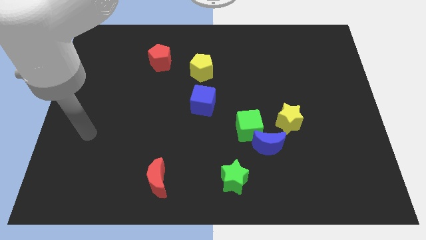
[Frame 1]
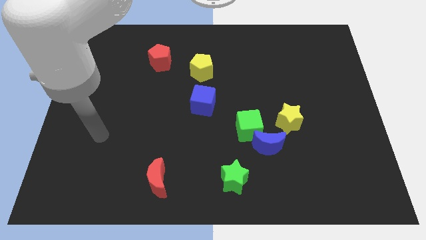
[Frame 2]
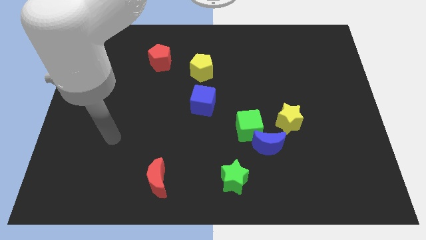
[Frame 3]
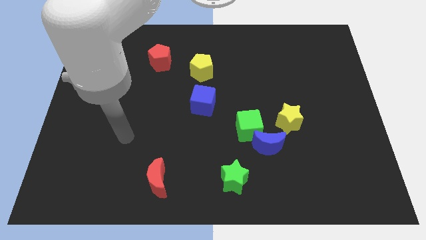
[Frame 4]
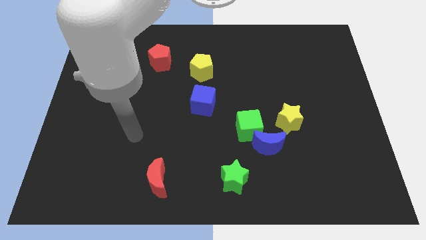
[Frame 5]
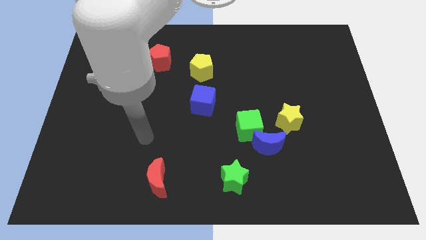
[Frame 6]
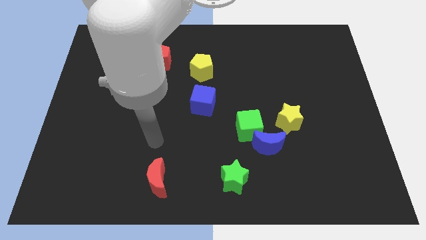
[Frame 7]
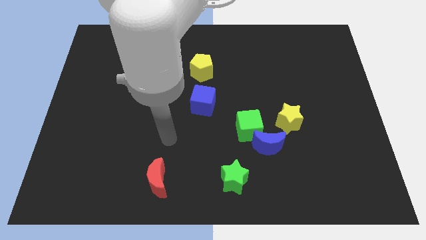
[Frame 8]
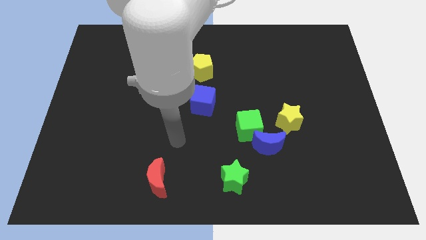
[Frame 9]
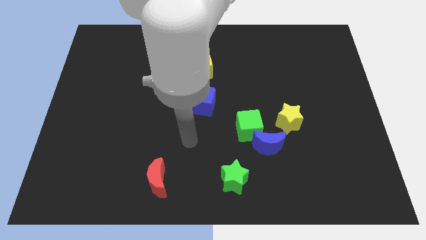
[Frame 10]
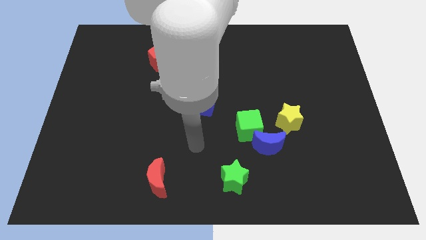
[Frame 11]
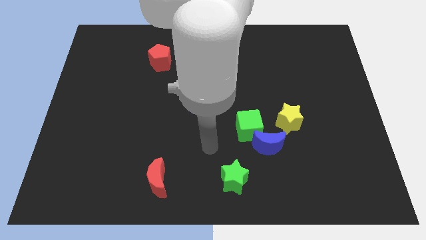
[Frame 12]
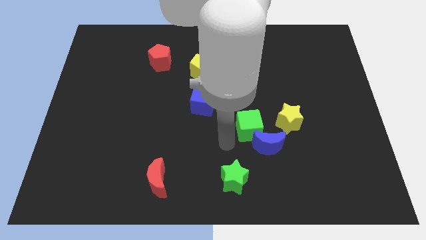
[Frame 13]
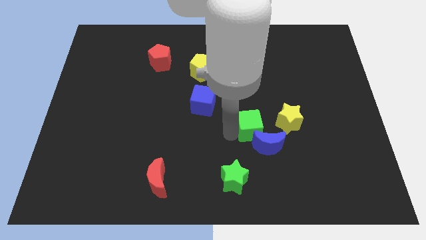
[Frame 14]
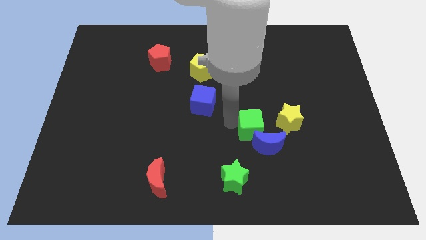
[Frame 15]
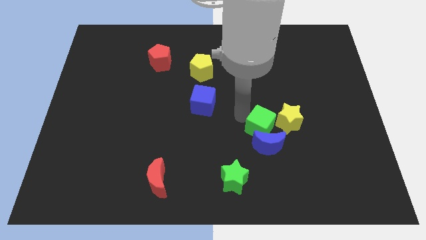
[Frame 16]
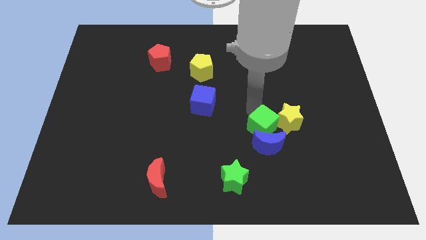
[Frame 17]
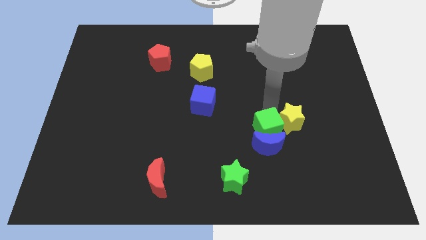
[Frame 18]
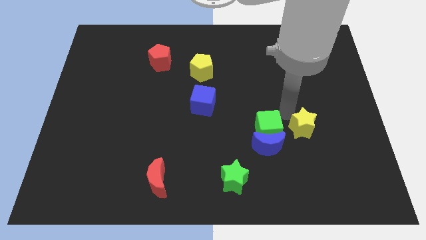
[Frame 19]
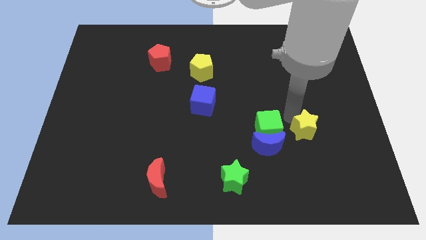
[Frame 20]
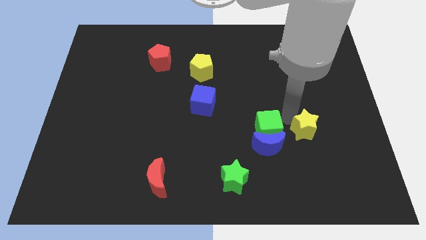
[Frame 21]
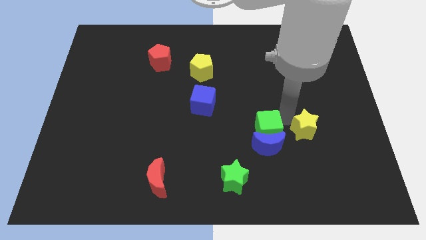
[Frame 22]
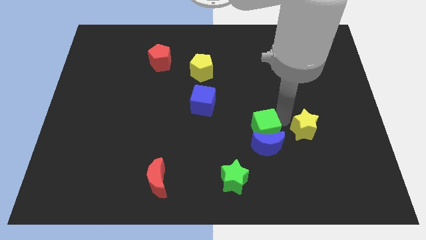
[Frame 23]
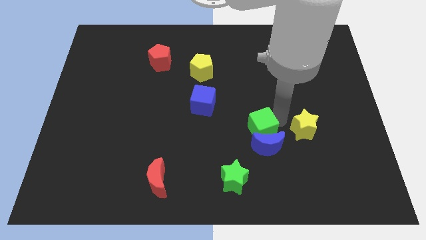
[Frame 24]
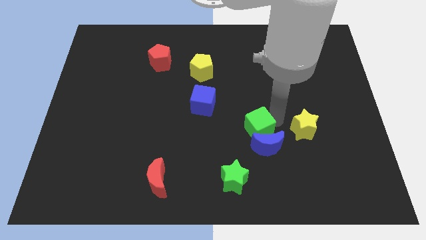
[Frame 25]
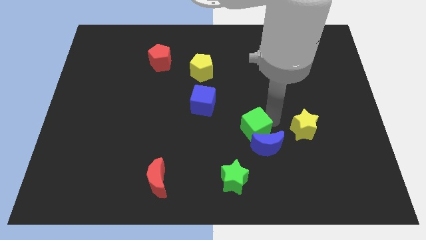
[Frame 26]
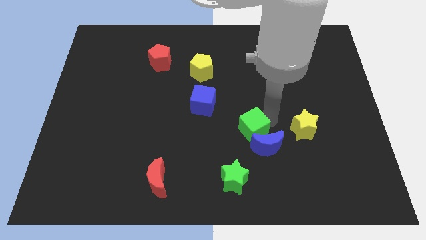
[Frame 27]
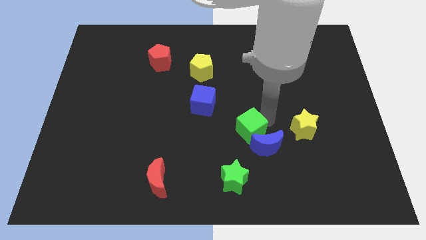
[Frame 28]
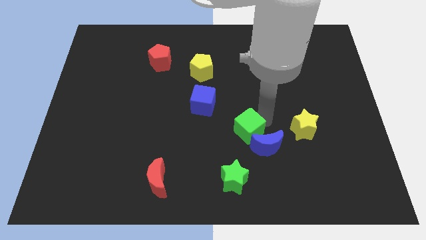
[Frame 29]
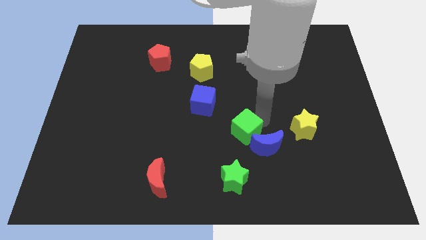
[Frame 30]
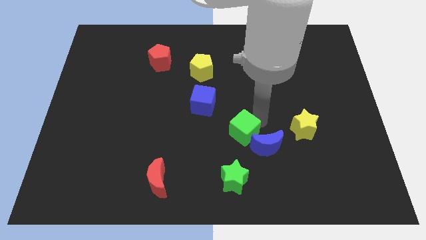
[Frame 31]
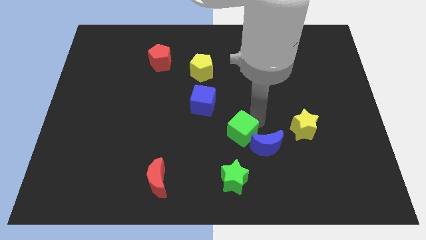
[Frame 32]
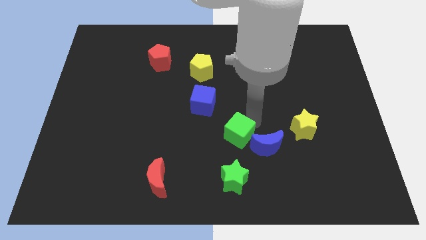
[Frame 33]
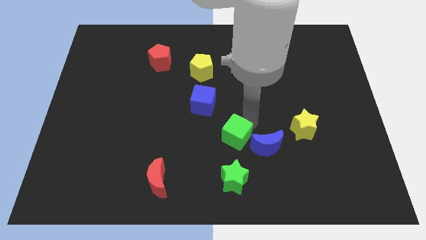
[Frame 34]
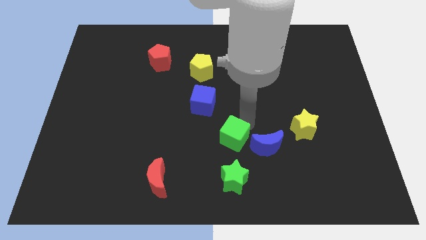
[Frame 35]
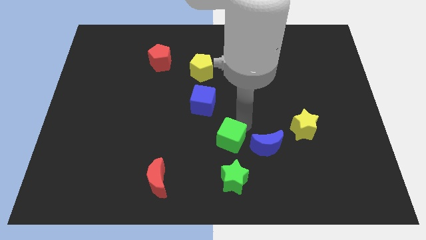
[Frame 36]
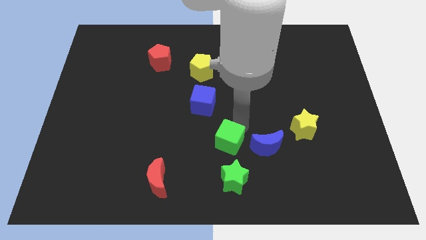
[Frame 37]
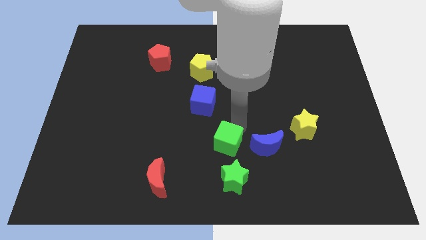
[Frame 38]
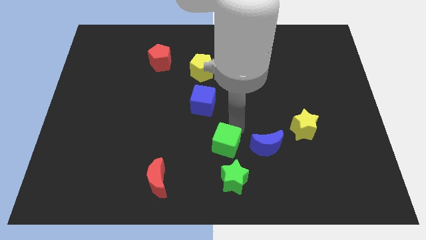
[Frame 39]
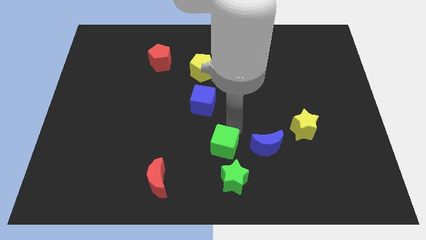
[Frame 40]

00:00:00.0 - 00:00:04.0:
slightly slide the green cube downwards and then to the left

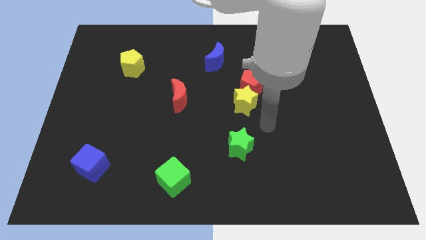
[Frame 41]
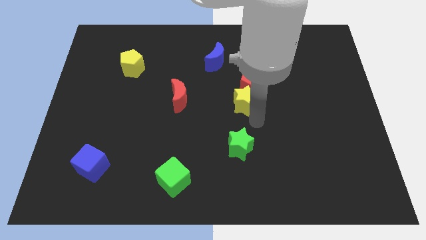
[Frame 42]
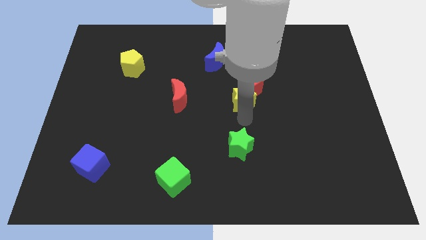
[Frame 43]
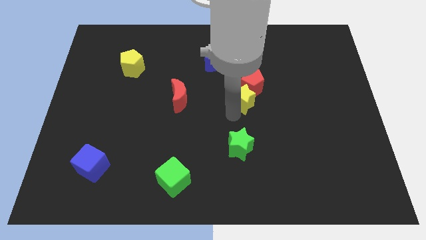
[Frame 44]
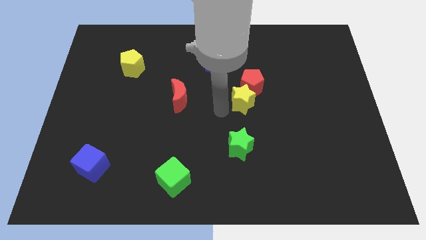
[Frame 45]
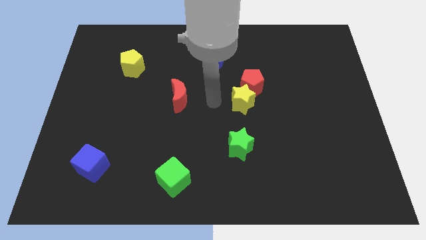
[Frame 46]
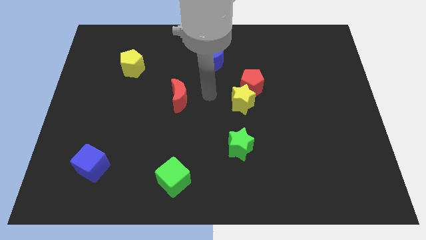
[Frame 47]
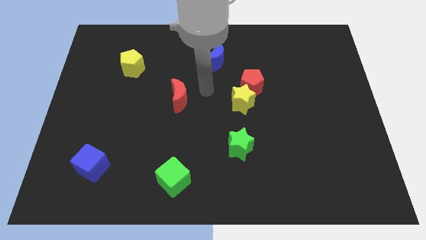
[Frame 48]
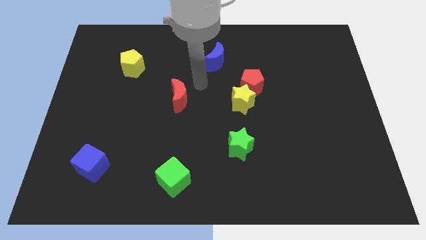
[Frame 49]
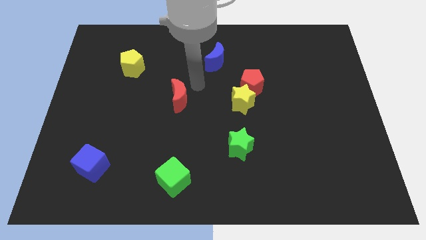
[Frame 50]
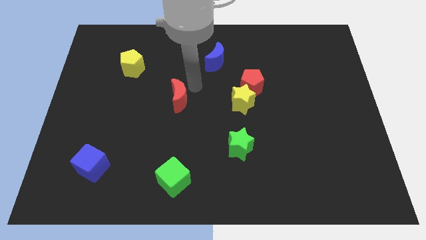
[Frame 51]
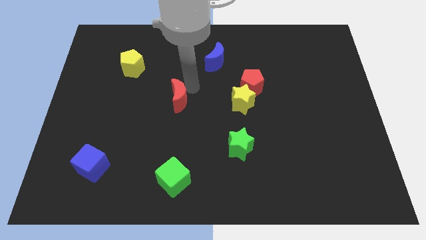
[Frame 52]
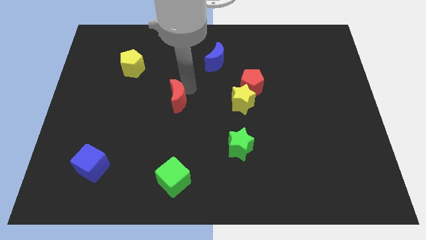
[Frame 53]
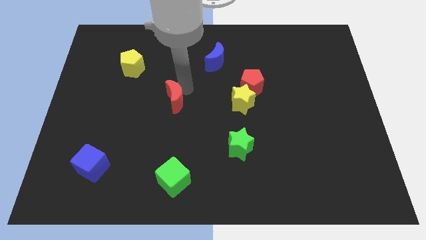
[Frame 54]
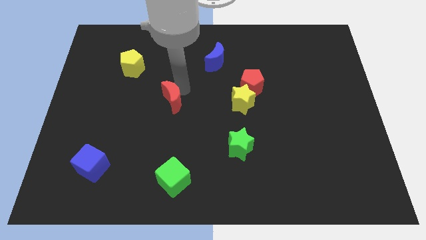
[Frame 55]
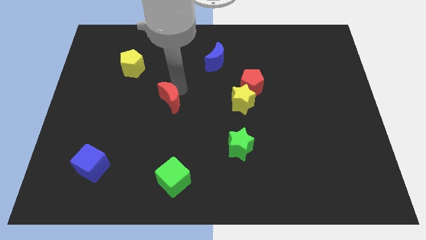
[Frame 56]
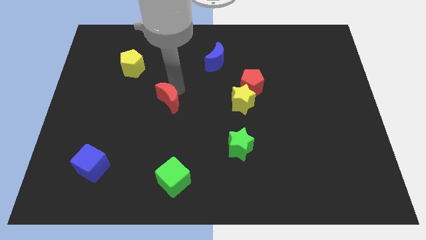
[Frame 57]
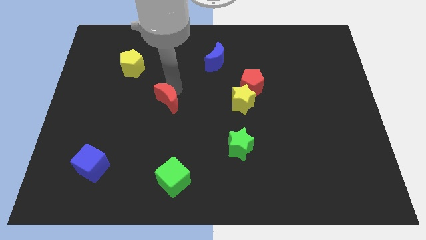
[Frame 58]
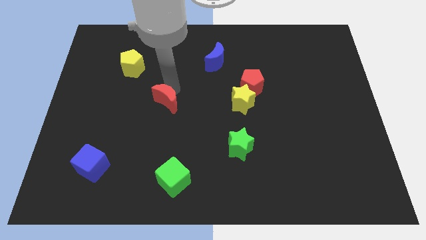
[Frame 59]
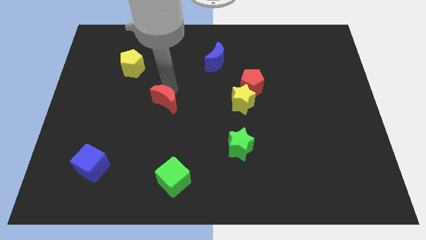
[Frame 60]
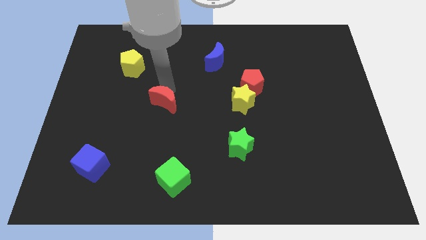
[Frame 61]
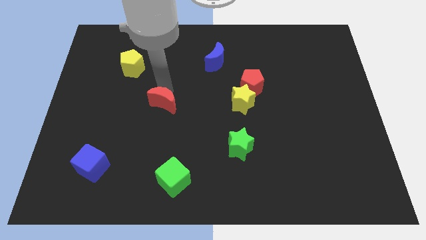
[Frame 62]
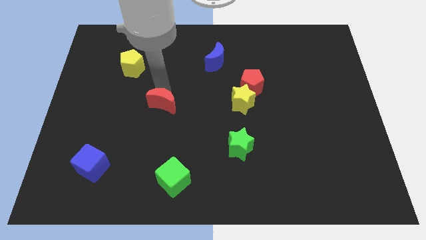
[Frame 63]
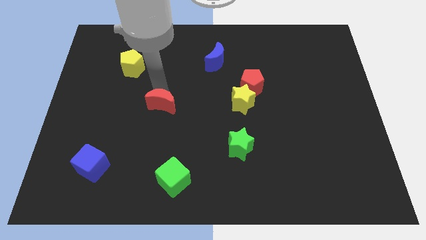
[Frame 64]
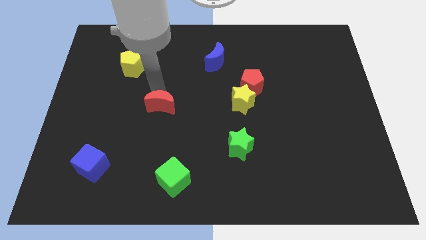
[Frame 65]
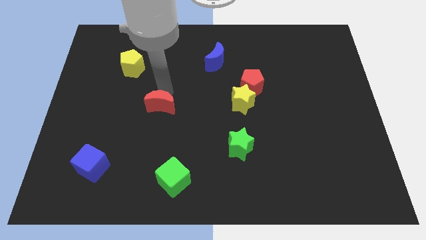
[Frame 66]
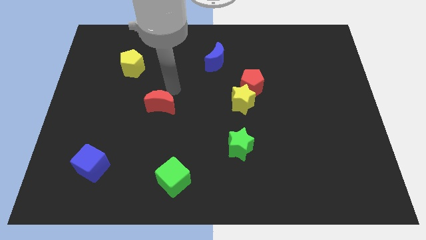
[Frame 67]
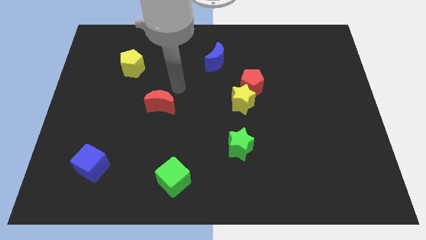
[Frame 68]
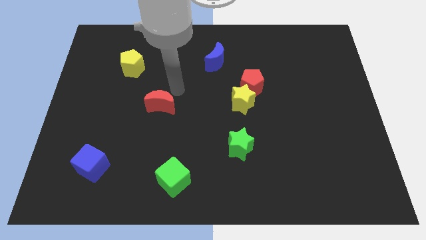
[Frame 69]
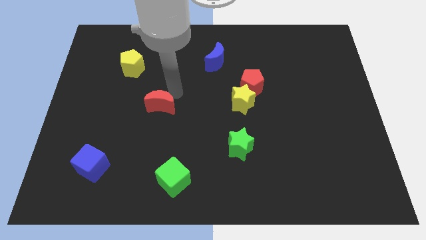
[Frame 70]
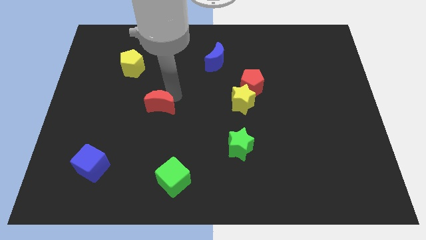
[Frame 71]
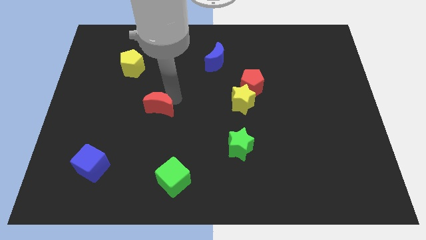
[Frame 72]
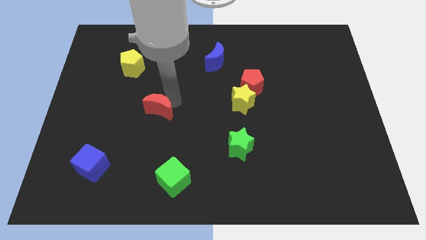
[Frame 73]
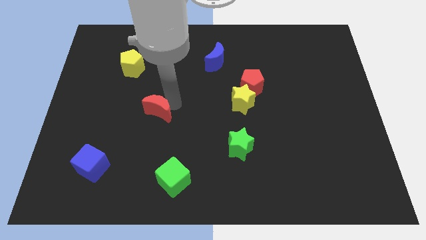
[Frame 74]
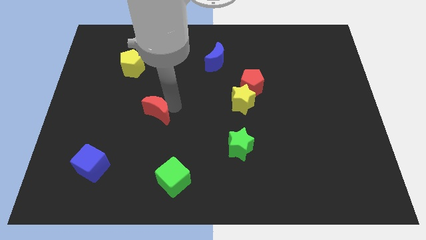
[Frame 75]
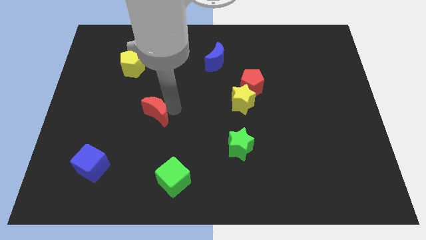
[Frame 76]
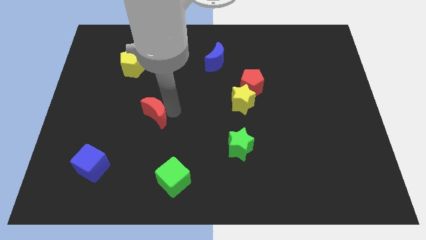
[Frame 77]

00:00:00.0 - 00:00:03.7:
push the red moon a little downwards and left diagonally

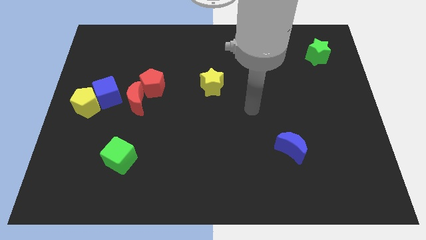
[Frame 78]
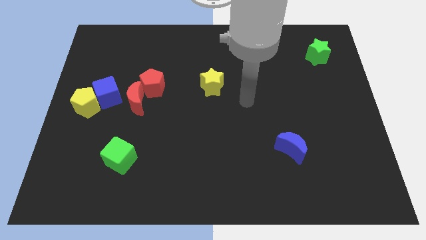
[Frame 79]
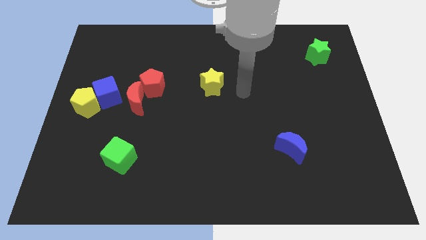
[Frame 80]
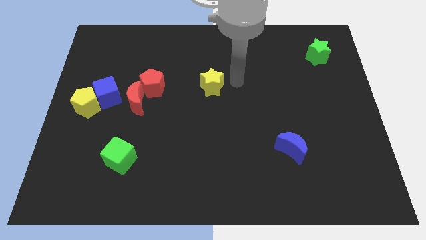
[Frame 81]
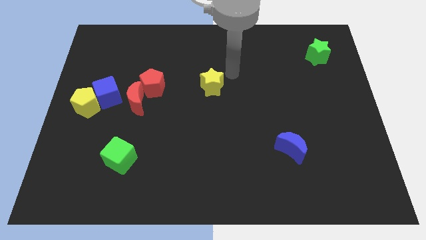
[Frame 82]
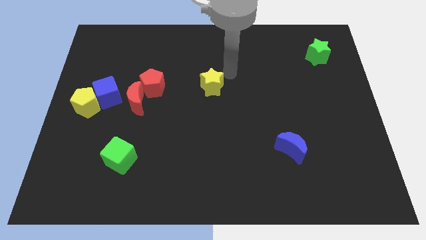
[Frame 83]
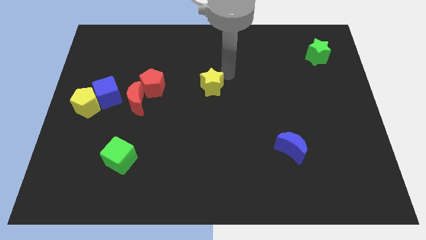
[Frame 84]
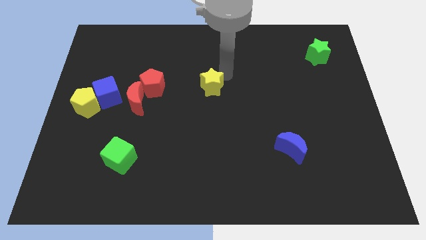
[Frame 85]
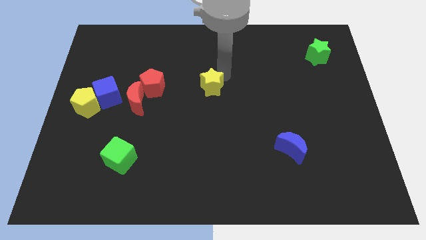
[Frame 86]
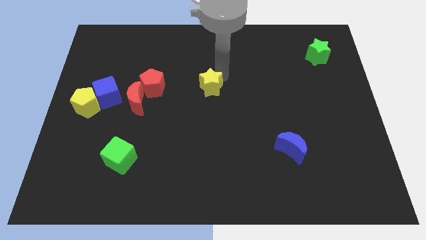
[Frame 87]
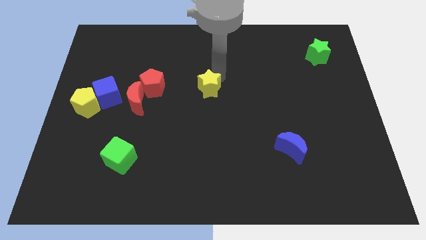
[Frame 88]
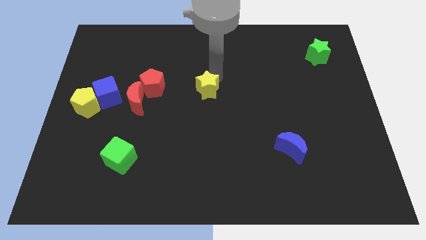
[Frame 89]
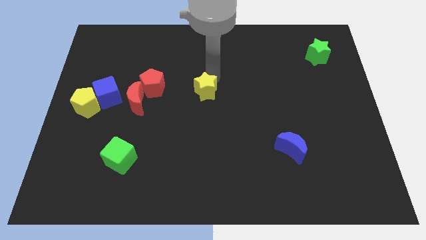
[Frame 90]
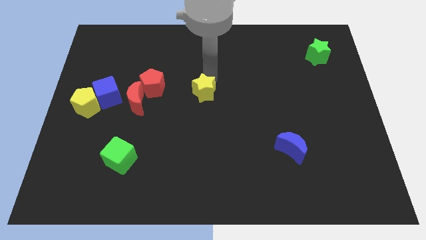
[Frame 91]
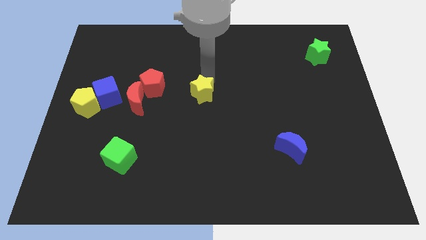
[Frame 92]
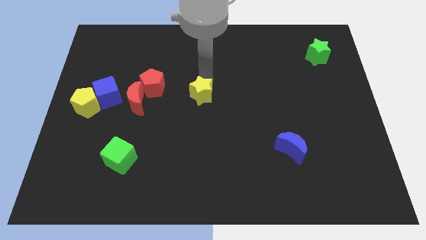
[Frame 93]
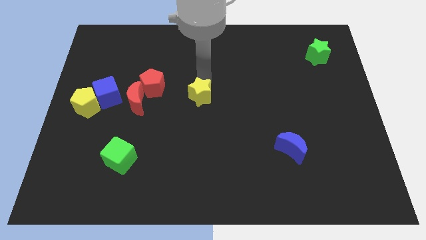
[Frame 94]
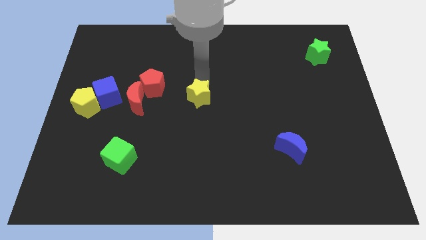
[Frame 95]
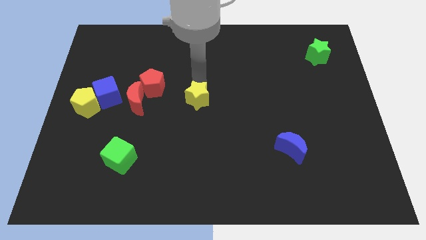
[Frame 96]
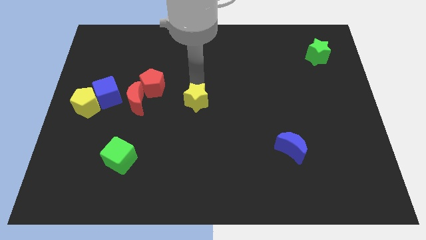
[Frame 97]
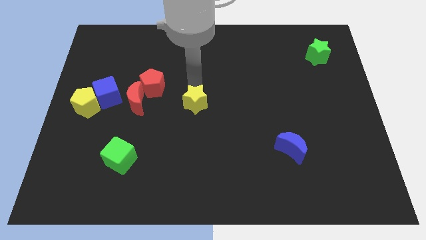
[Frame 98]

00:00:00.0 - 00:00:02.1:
slightly push the yellow star downwards and to the left diagonally
